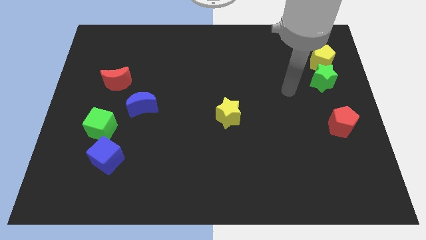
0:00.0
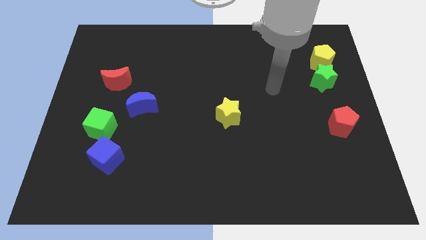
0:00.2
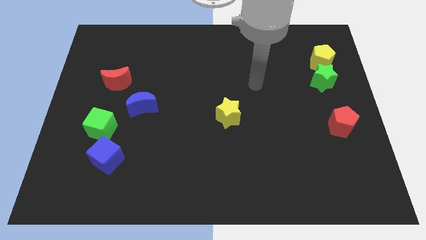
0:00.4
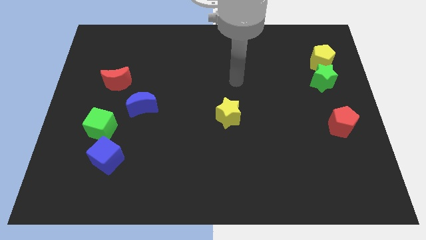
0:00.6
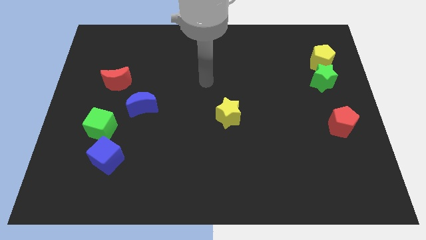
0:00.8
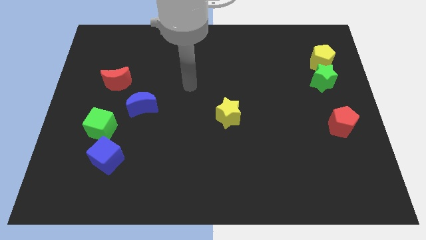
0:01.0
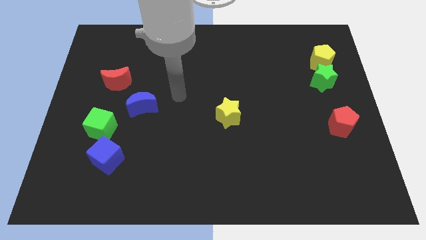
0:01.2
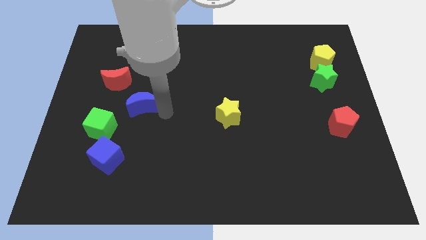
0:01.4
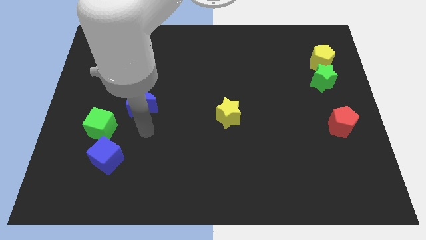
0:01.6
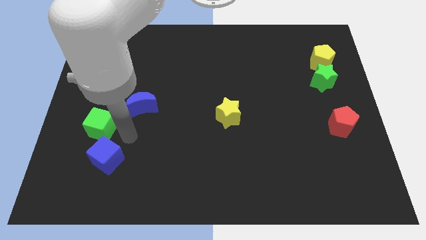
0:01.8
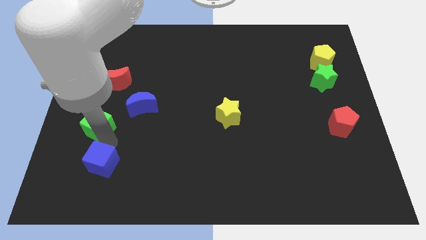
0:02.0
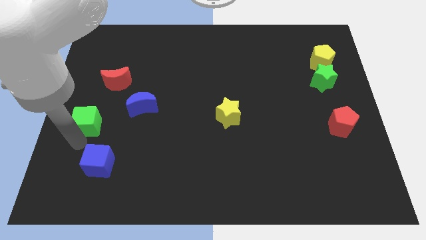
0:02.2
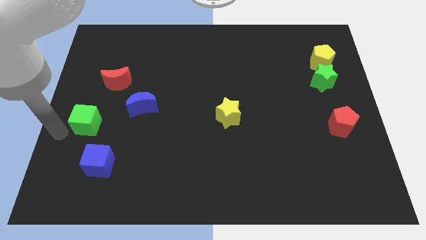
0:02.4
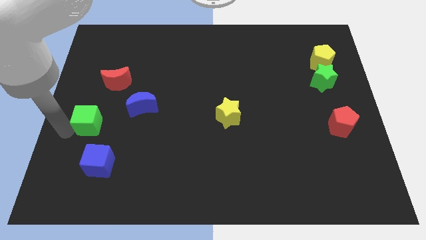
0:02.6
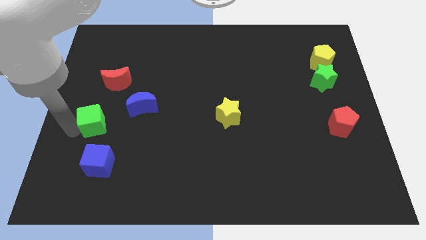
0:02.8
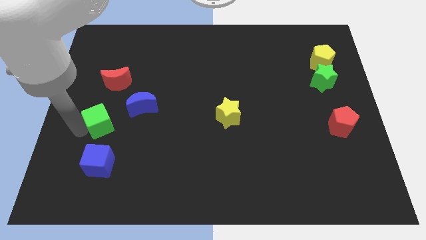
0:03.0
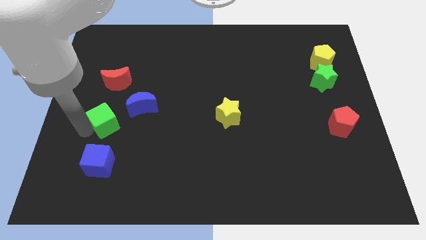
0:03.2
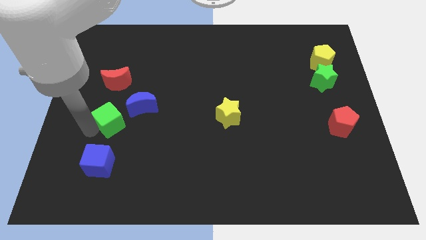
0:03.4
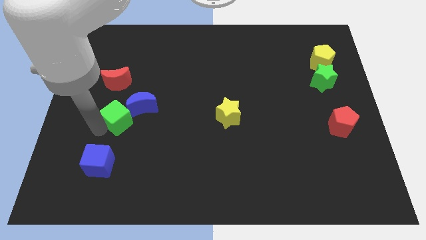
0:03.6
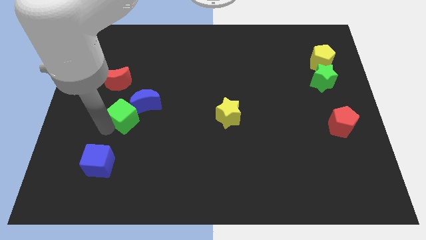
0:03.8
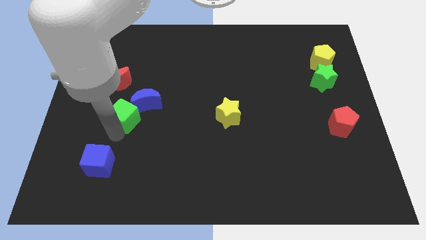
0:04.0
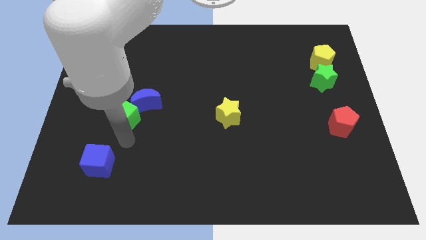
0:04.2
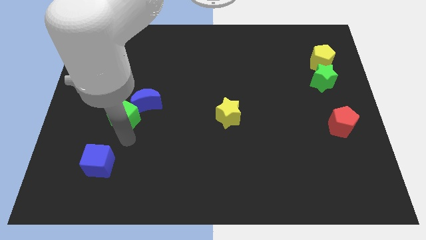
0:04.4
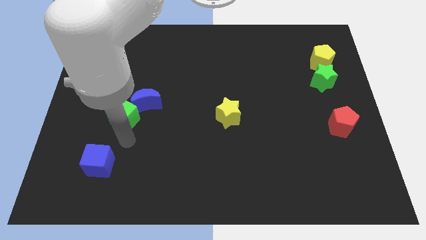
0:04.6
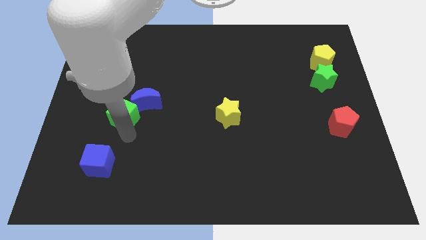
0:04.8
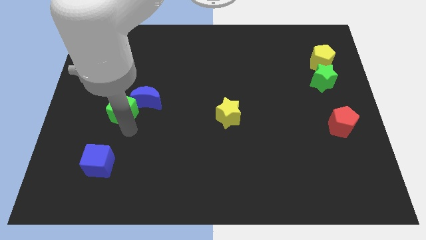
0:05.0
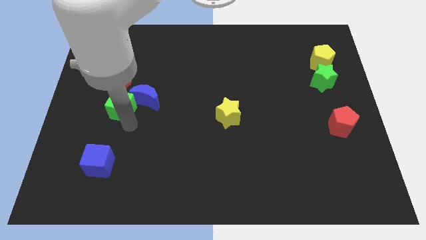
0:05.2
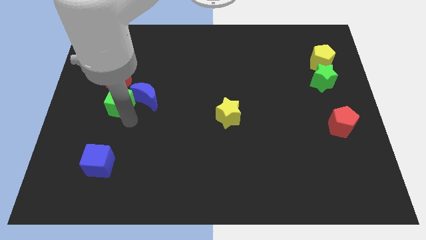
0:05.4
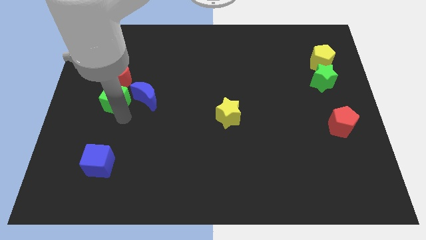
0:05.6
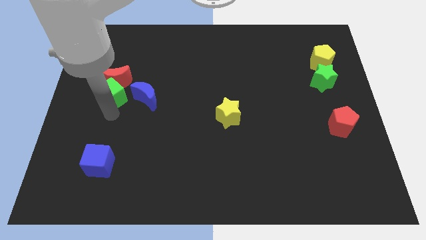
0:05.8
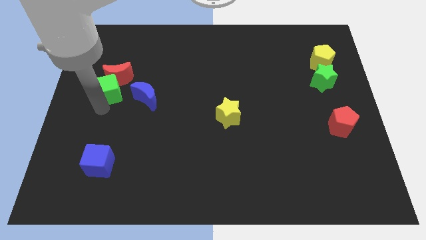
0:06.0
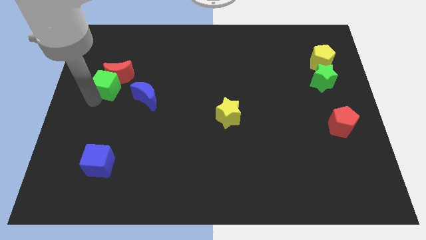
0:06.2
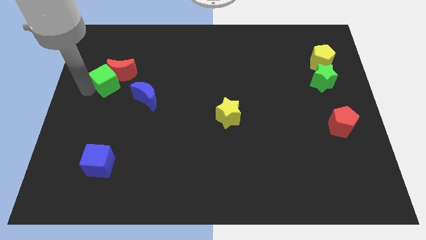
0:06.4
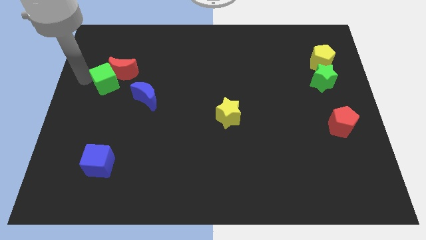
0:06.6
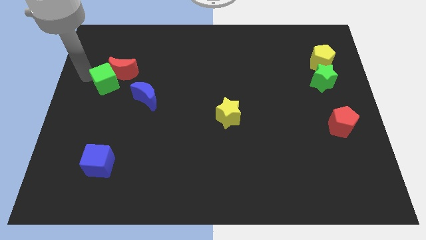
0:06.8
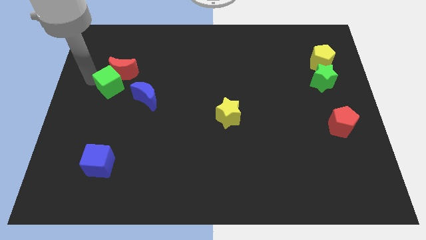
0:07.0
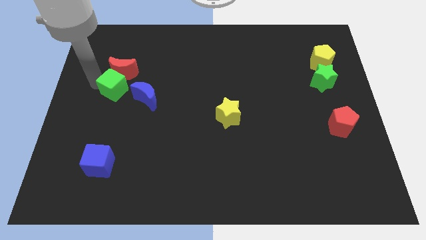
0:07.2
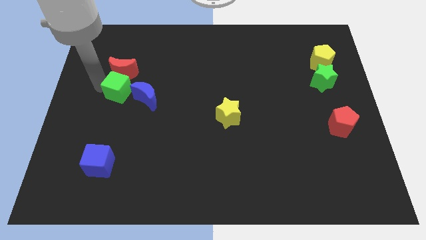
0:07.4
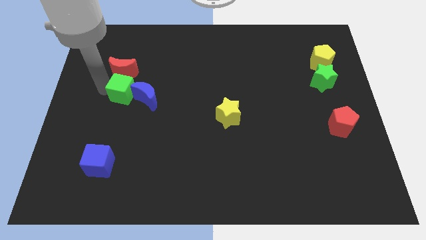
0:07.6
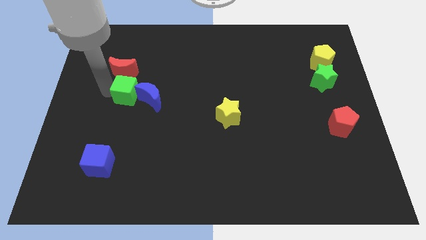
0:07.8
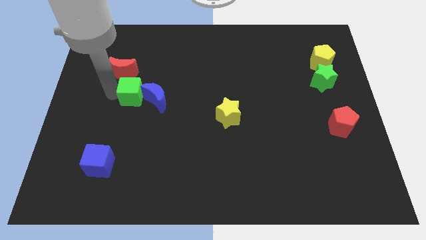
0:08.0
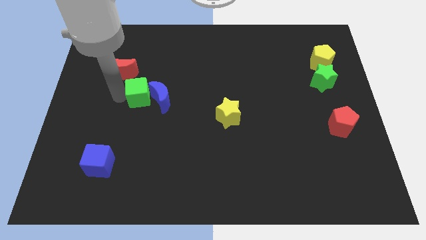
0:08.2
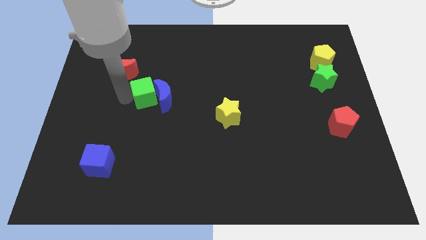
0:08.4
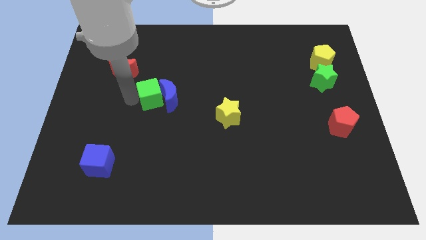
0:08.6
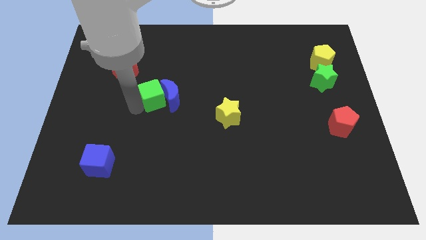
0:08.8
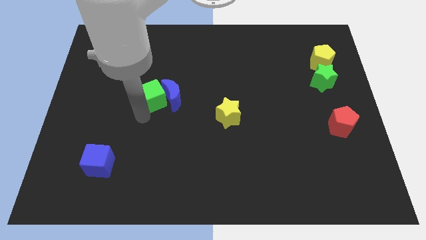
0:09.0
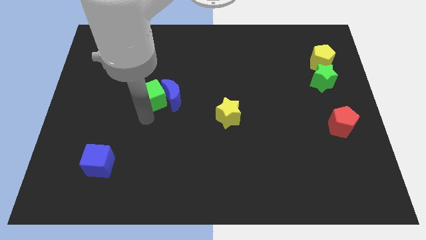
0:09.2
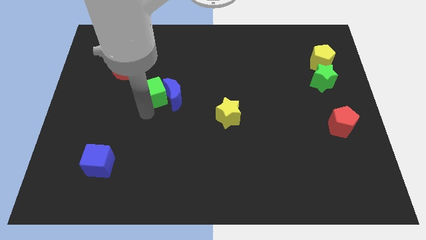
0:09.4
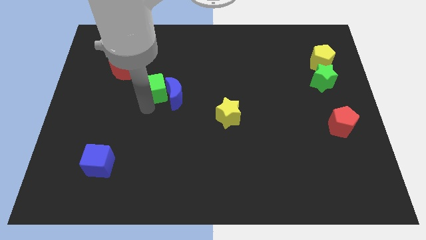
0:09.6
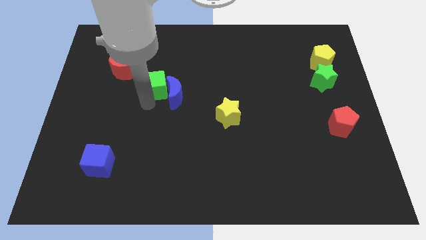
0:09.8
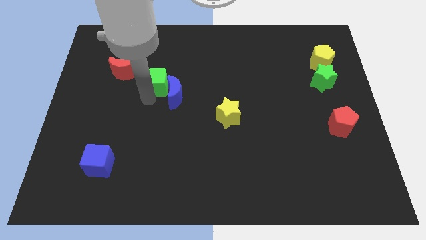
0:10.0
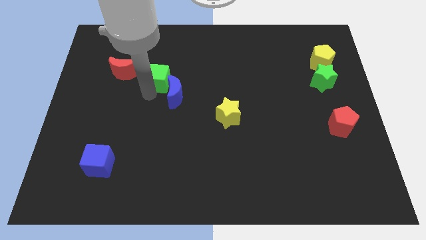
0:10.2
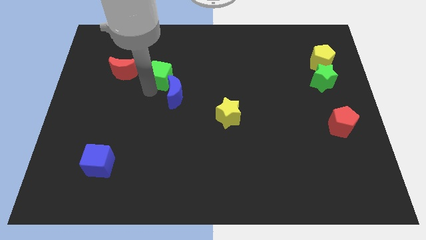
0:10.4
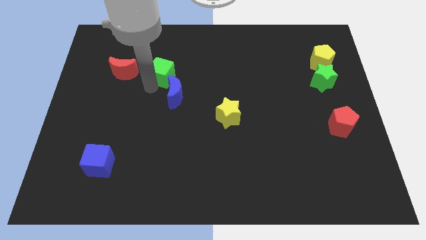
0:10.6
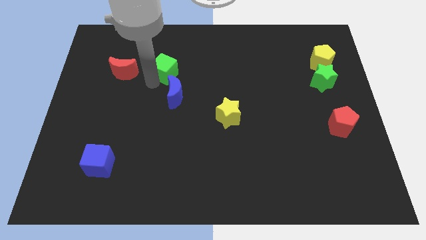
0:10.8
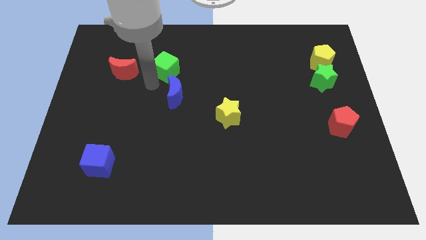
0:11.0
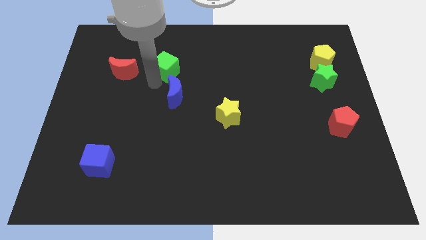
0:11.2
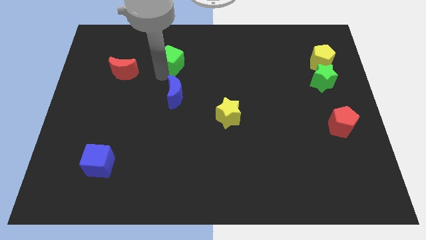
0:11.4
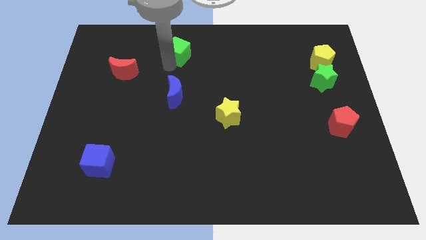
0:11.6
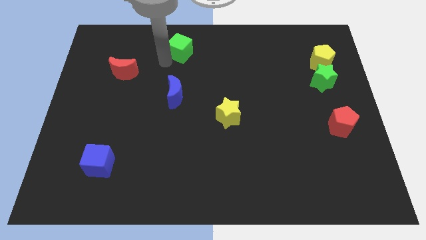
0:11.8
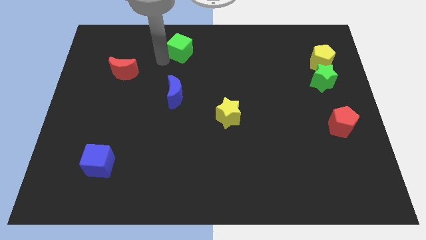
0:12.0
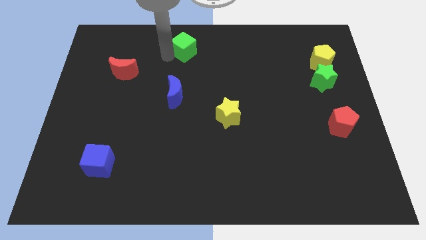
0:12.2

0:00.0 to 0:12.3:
put the green cube to the towards your base

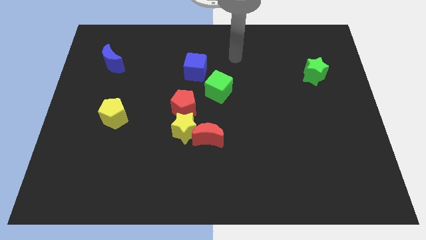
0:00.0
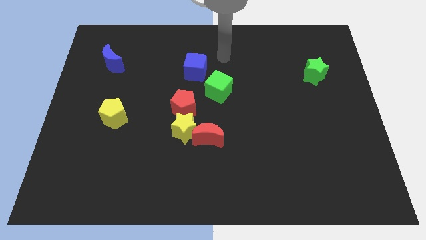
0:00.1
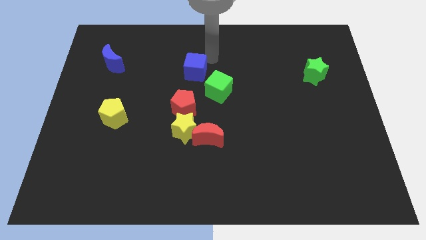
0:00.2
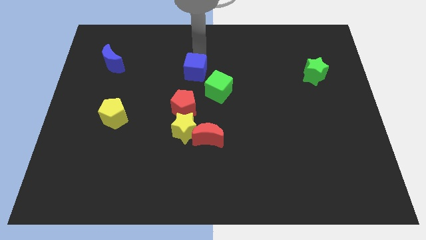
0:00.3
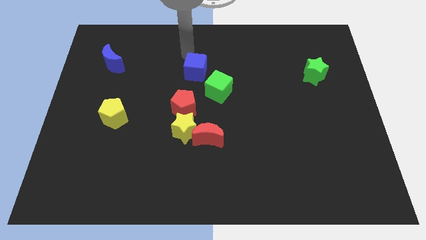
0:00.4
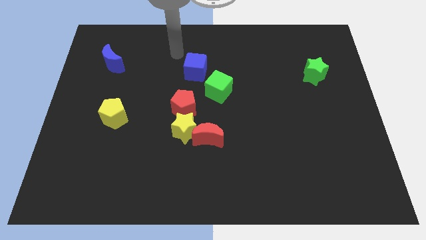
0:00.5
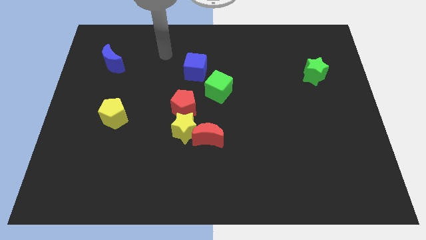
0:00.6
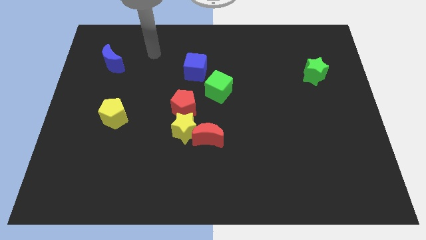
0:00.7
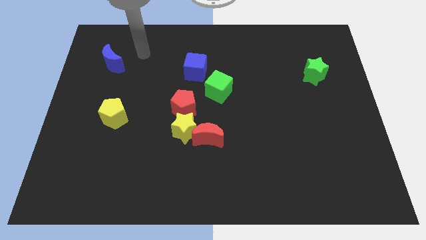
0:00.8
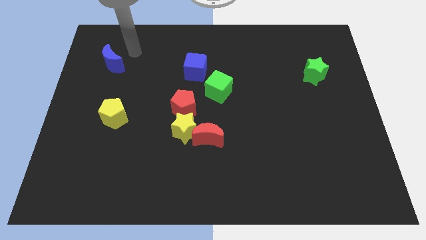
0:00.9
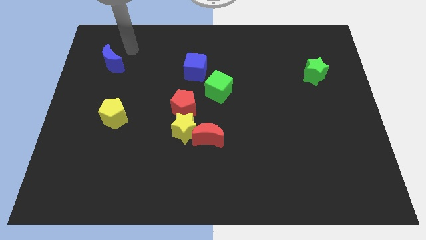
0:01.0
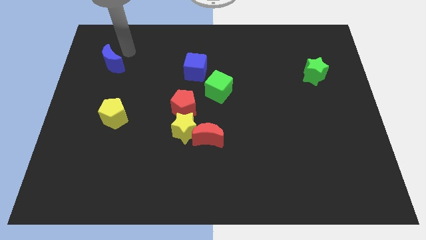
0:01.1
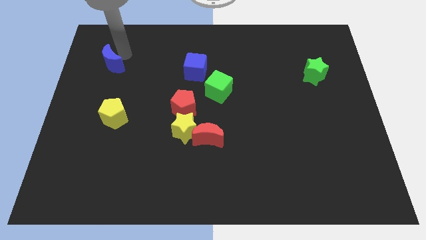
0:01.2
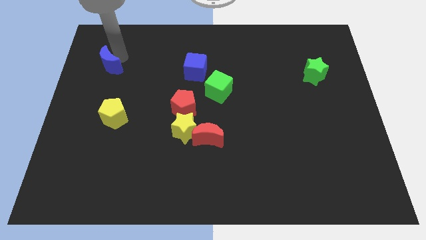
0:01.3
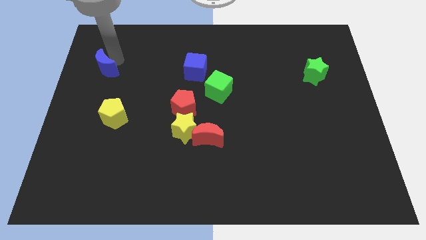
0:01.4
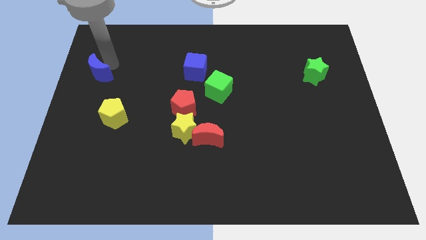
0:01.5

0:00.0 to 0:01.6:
slide the blue moon to the left side

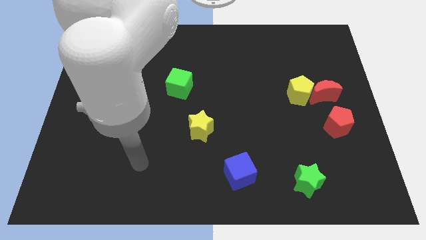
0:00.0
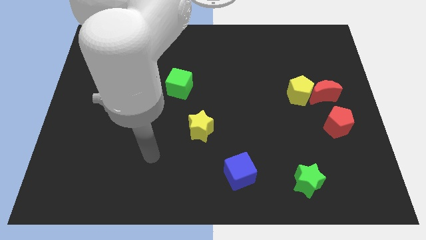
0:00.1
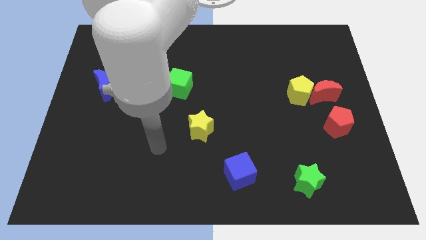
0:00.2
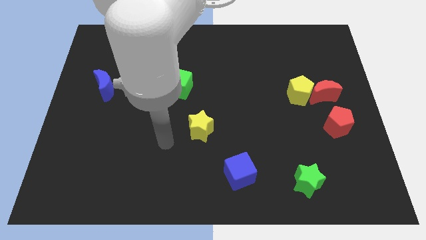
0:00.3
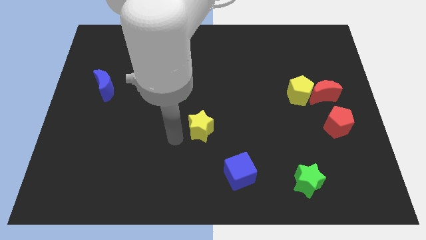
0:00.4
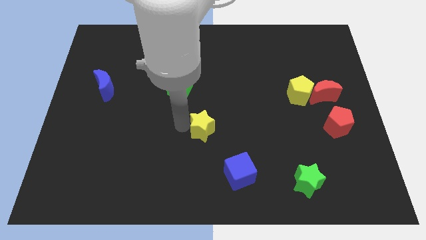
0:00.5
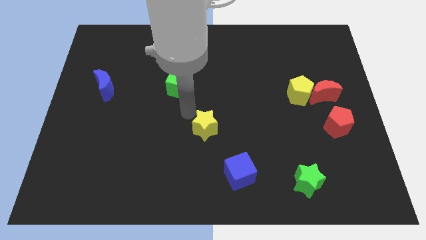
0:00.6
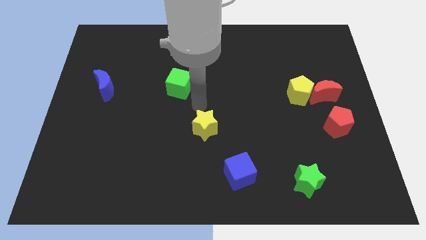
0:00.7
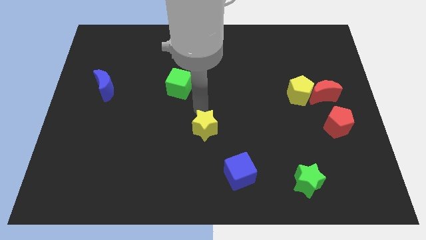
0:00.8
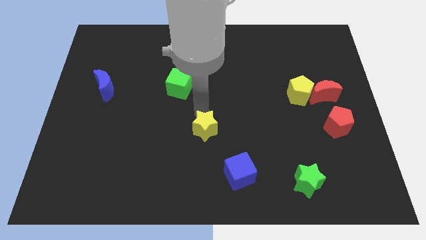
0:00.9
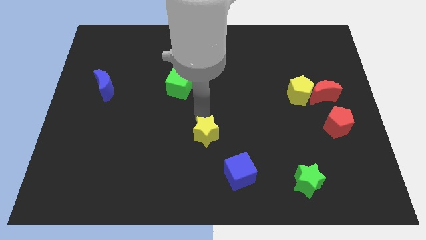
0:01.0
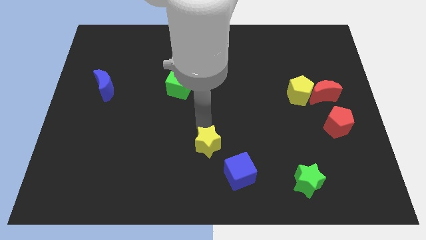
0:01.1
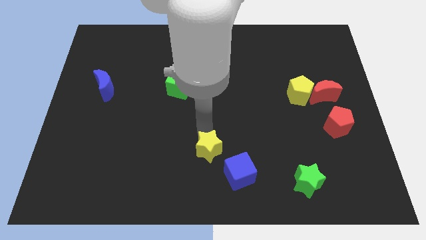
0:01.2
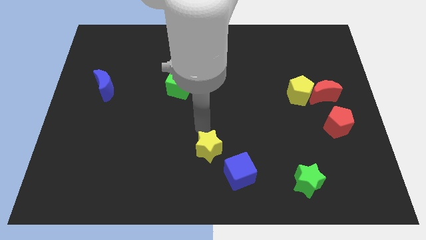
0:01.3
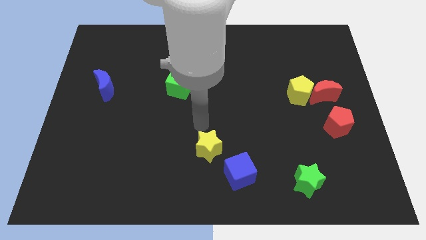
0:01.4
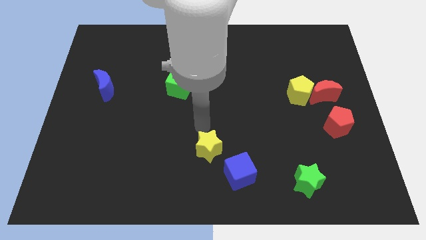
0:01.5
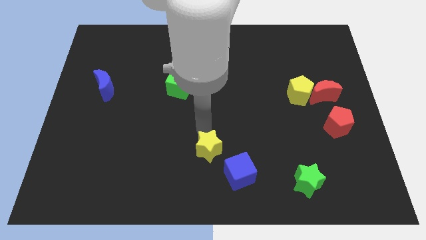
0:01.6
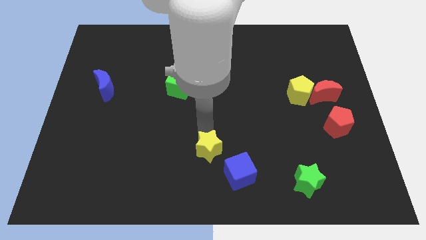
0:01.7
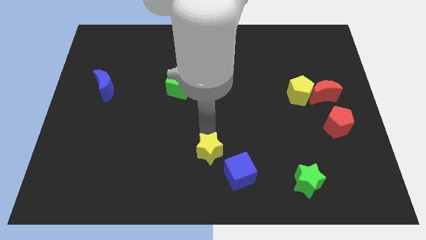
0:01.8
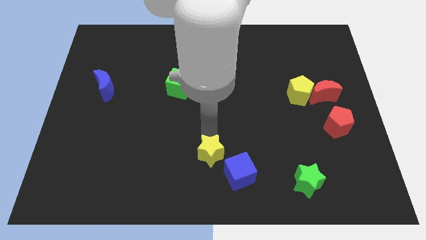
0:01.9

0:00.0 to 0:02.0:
push the yellow star to the bottom side
